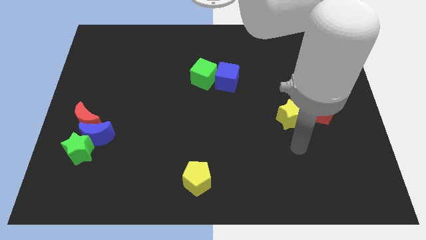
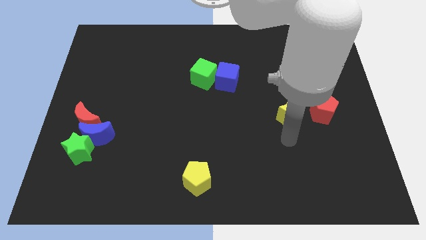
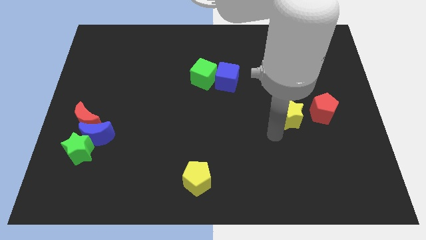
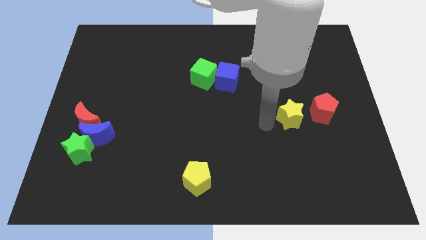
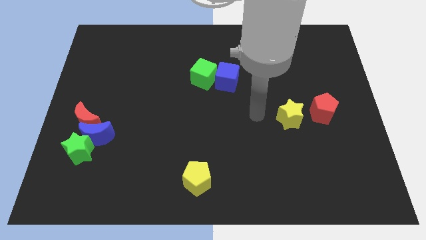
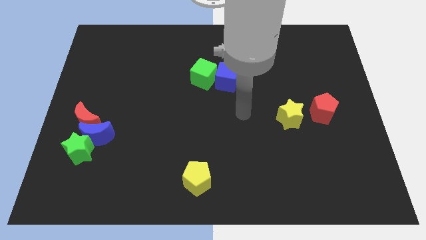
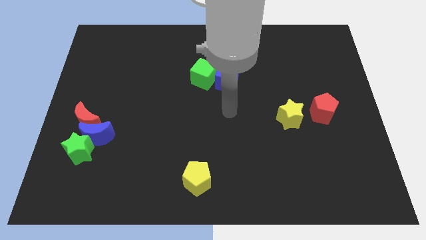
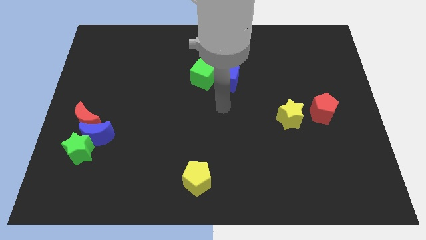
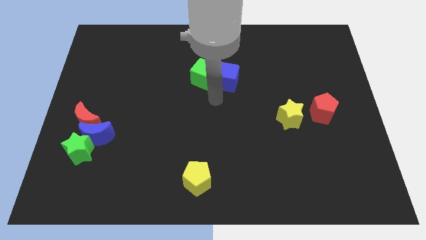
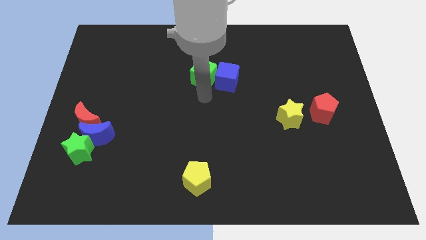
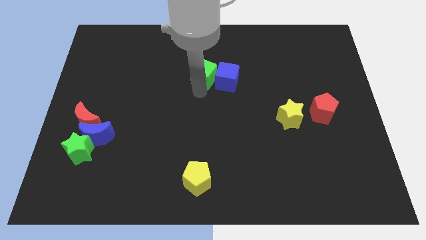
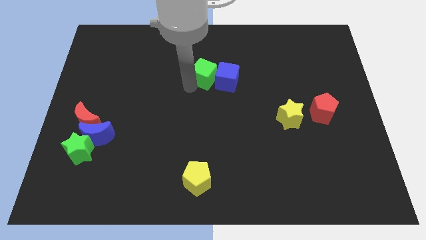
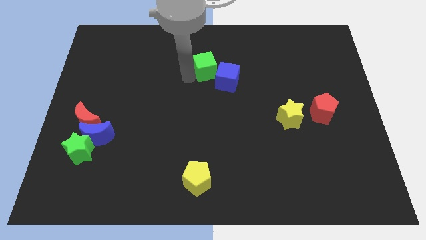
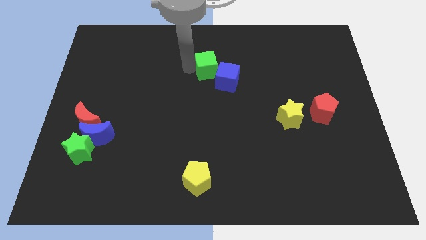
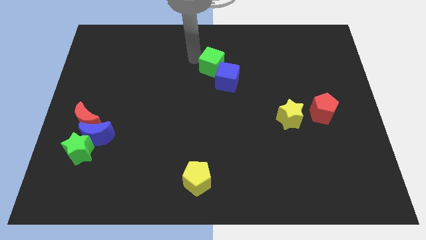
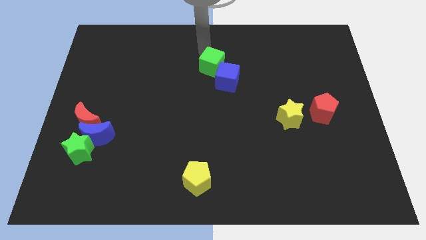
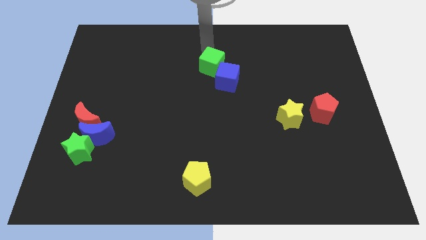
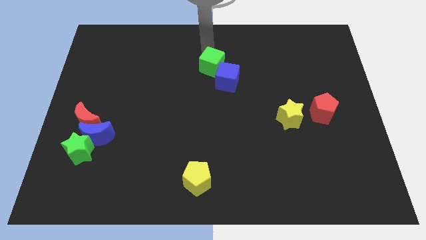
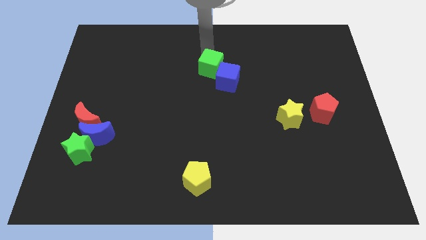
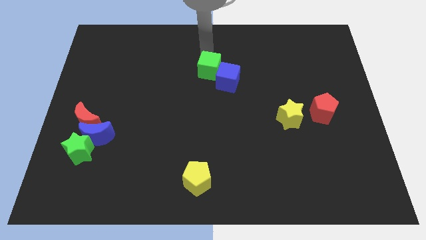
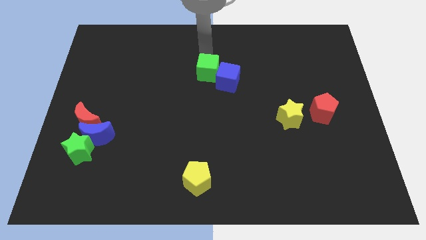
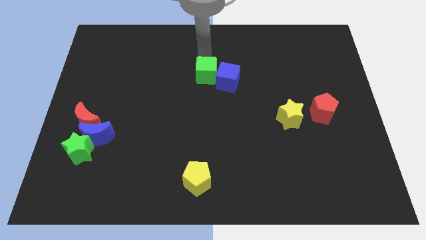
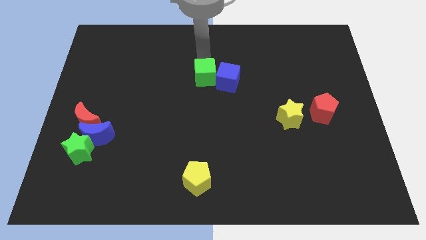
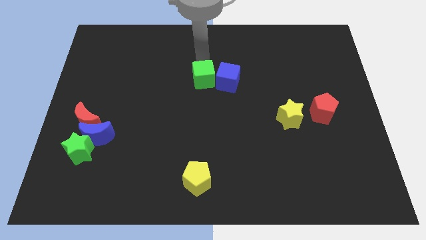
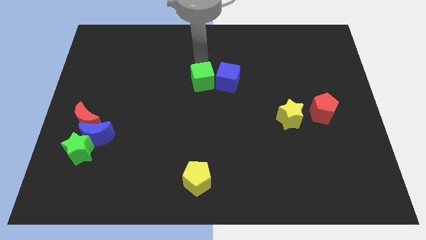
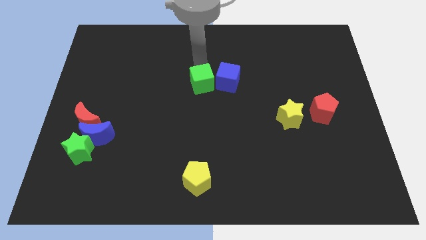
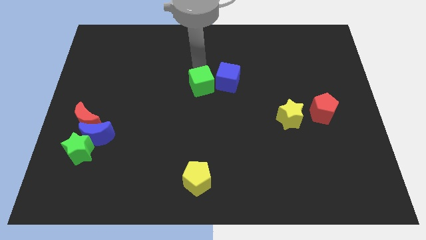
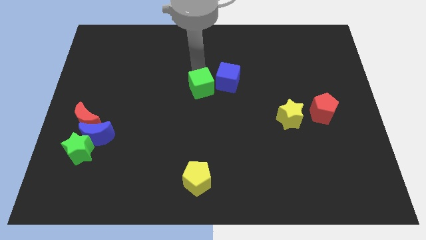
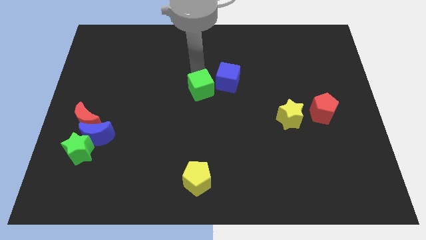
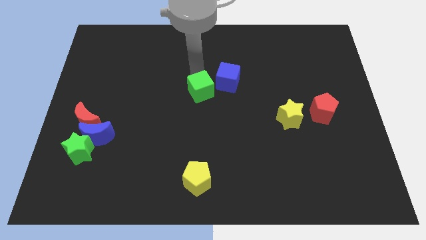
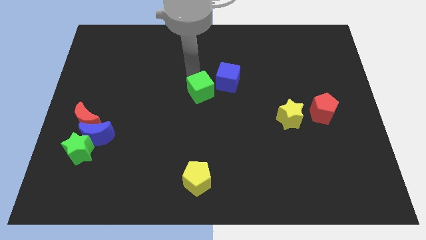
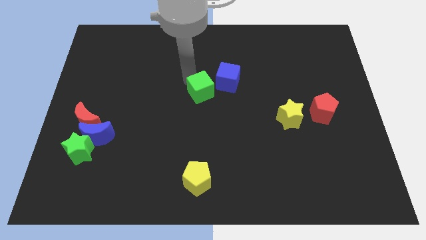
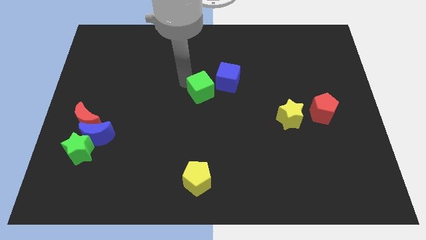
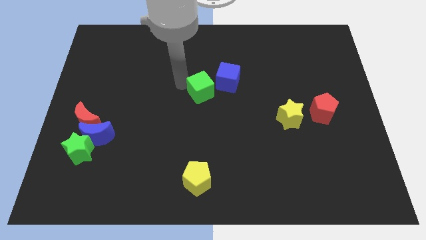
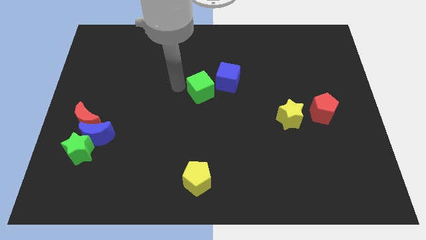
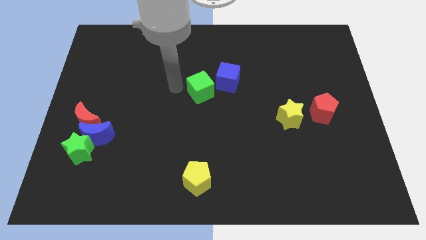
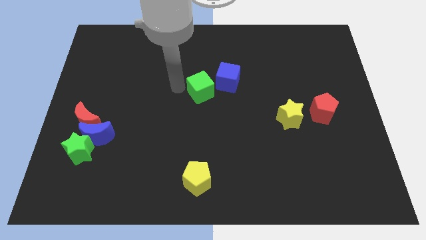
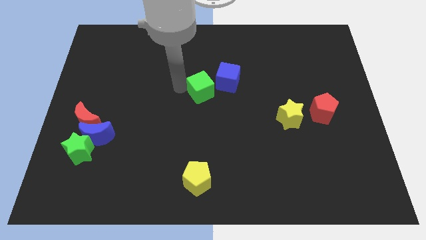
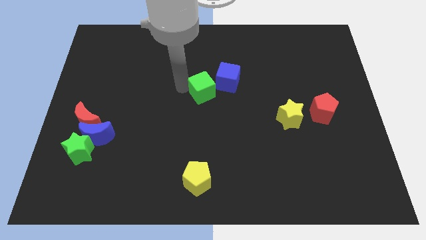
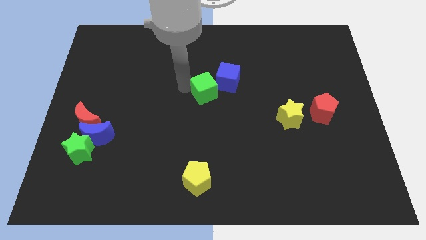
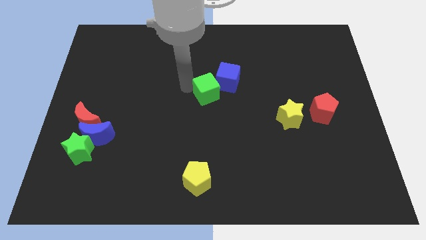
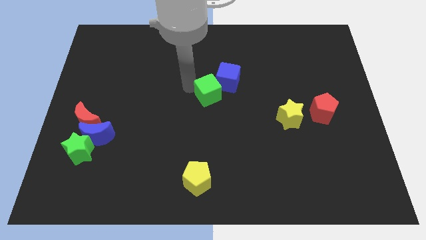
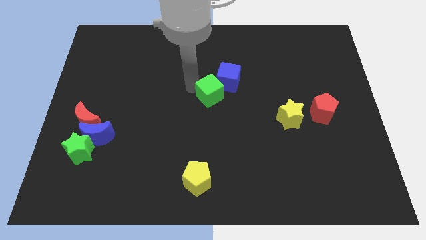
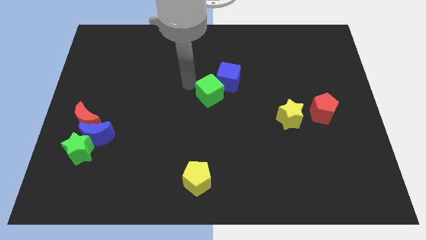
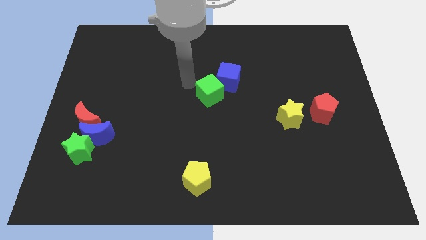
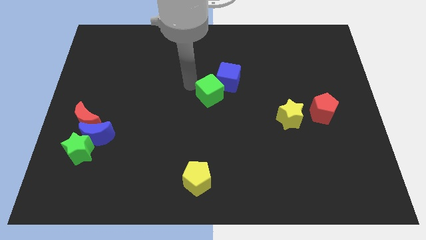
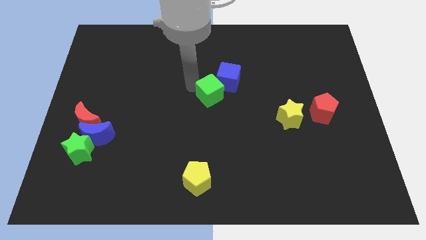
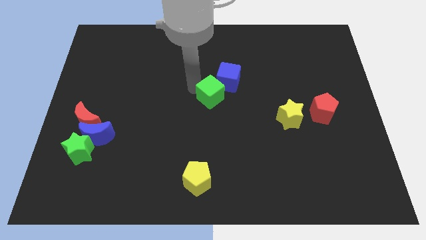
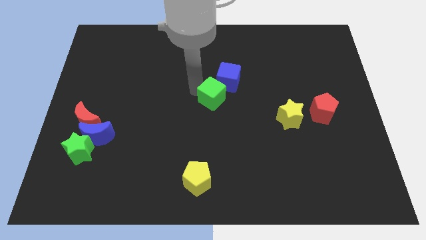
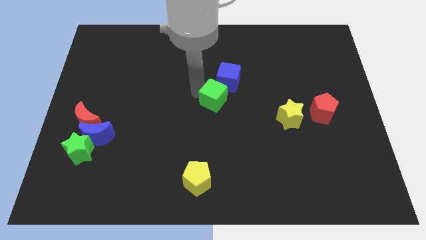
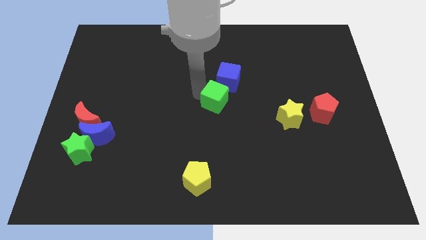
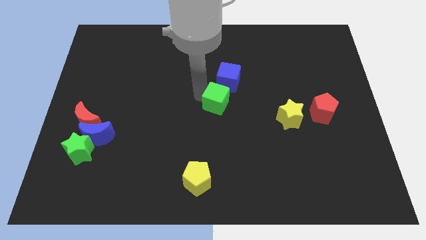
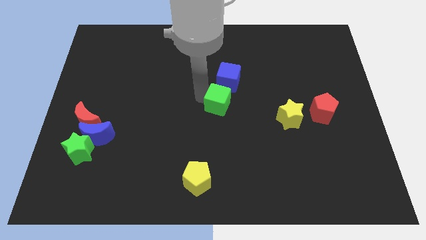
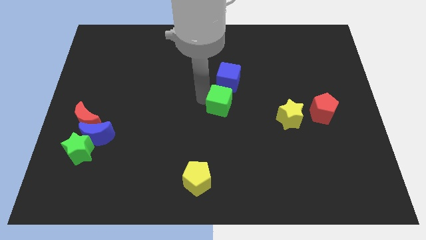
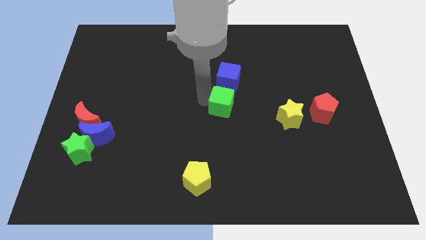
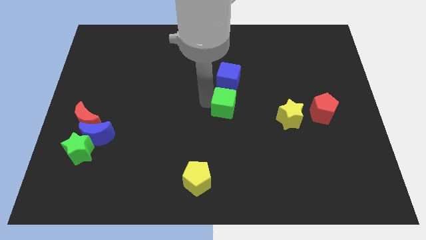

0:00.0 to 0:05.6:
slide the green cube just left of the yellow star
